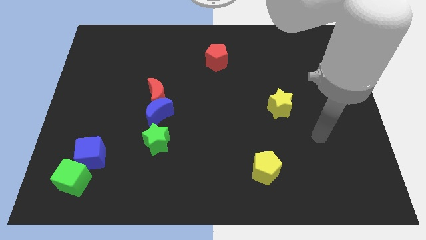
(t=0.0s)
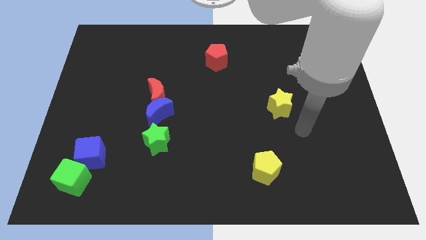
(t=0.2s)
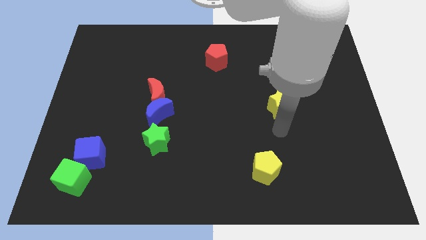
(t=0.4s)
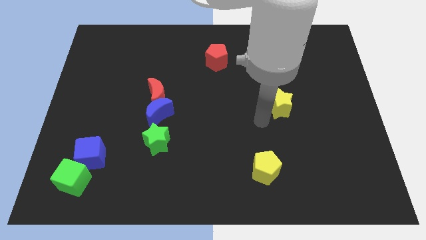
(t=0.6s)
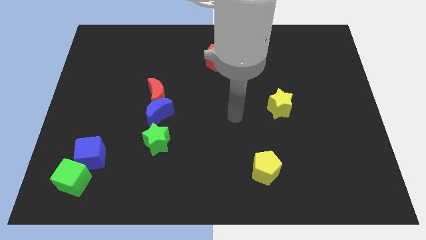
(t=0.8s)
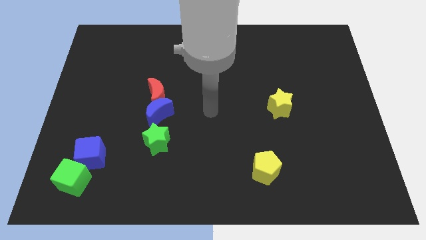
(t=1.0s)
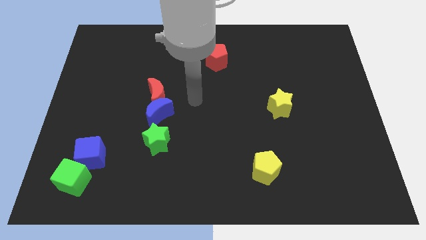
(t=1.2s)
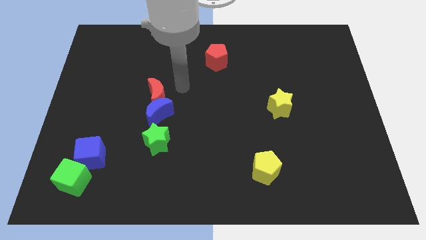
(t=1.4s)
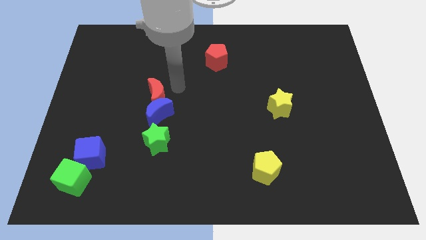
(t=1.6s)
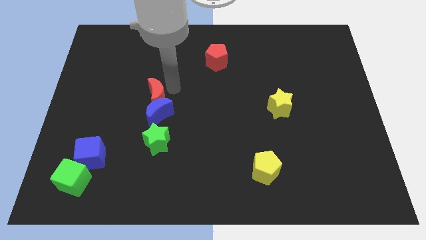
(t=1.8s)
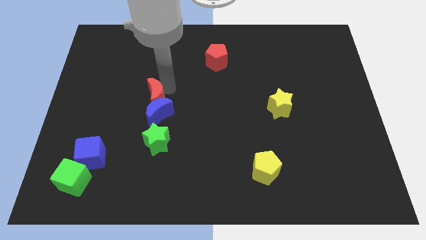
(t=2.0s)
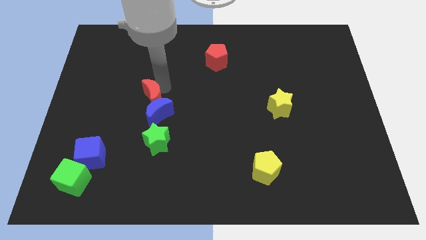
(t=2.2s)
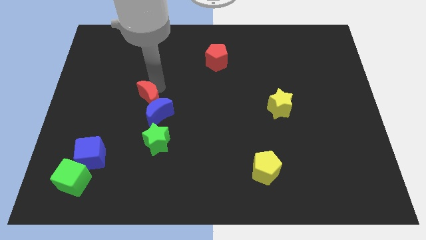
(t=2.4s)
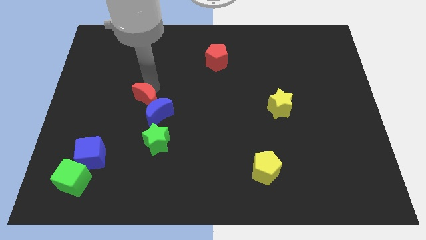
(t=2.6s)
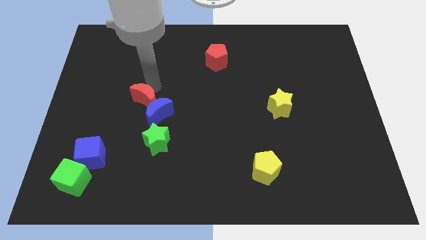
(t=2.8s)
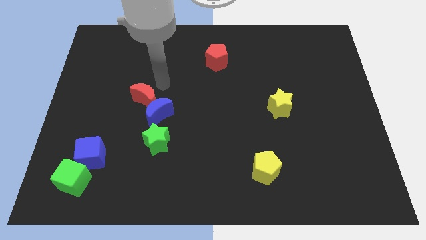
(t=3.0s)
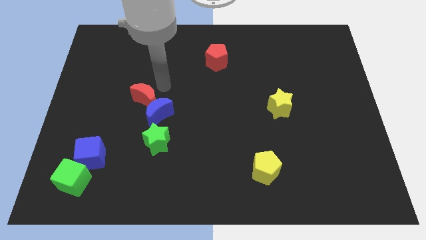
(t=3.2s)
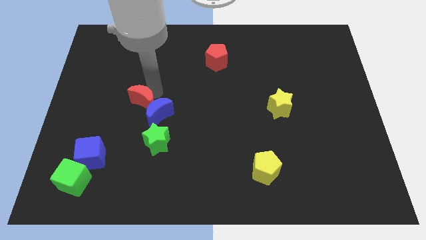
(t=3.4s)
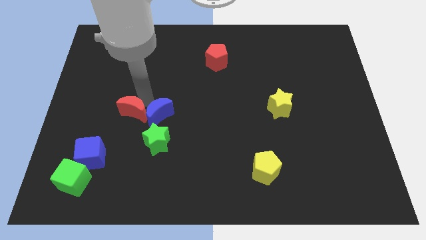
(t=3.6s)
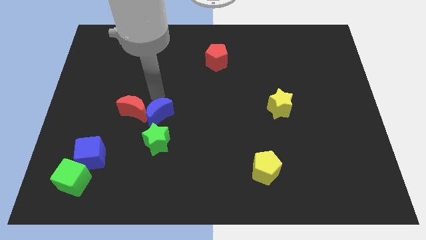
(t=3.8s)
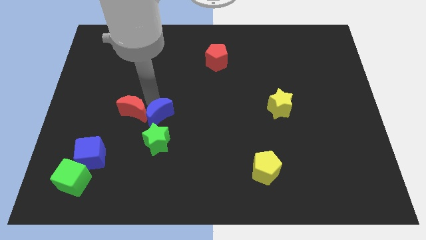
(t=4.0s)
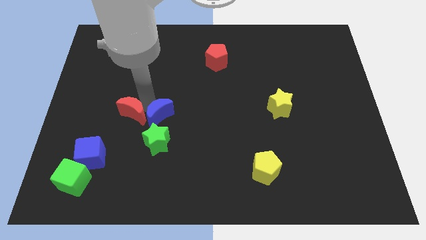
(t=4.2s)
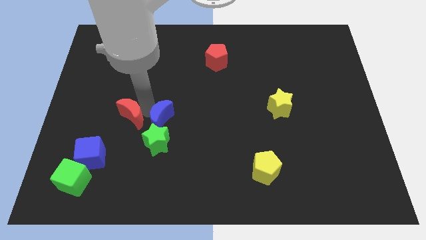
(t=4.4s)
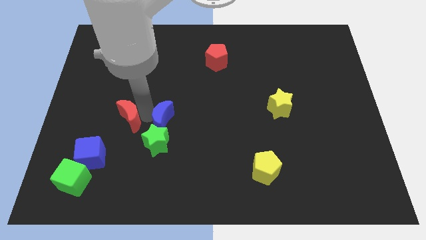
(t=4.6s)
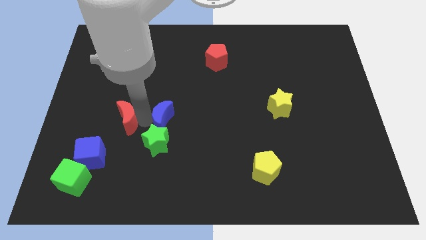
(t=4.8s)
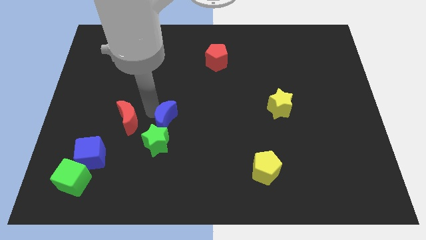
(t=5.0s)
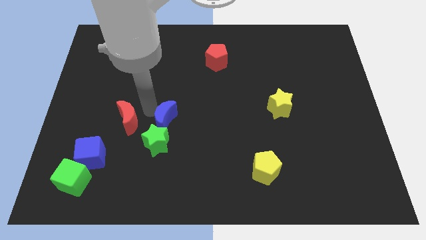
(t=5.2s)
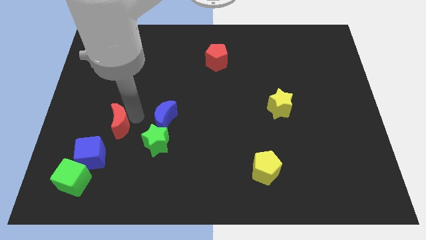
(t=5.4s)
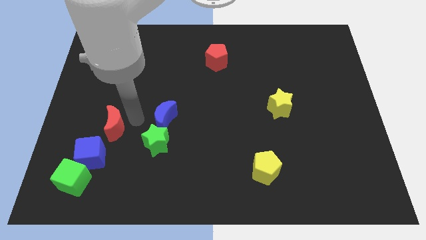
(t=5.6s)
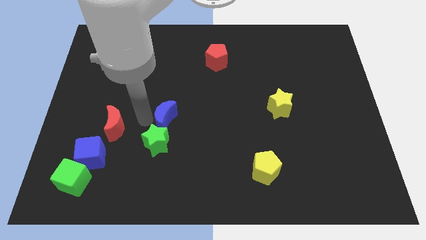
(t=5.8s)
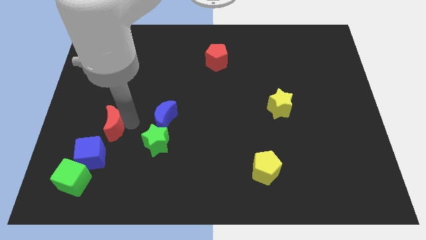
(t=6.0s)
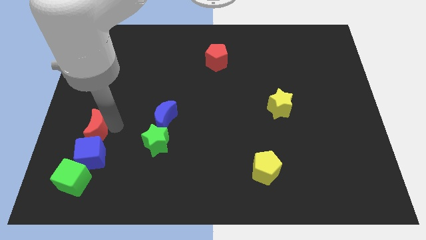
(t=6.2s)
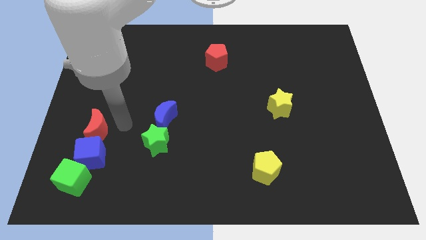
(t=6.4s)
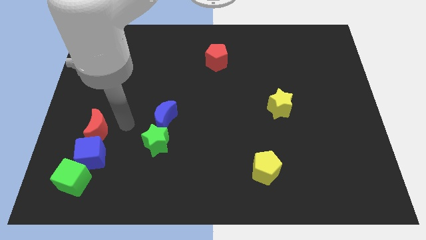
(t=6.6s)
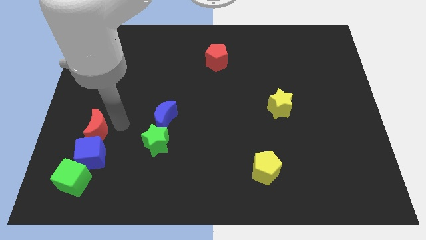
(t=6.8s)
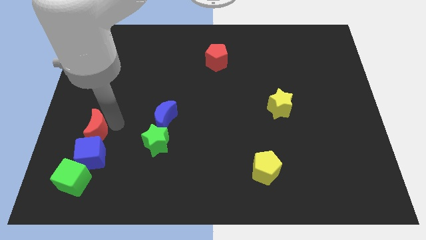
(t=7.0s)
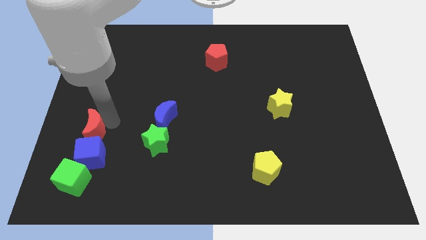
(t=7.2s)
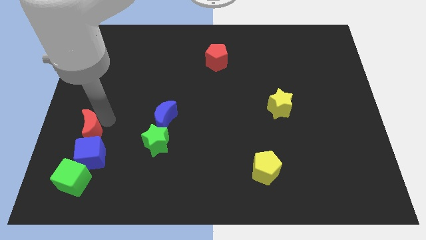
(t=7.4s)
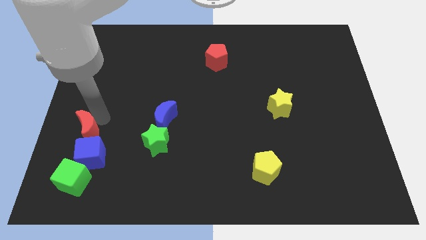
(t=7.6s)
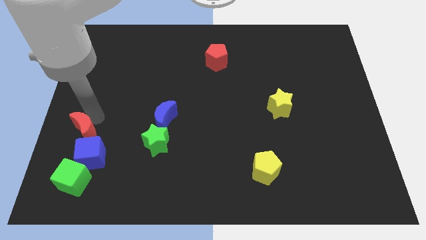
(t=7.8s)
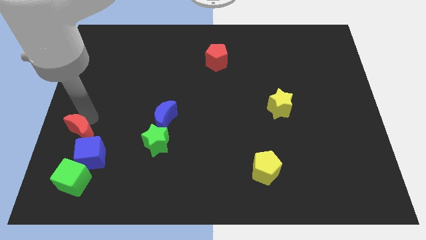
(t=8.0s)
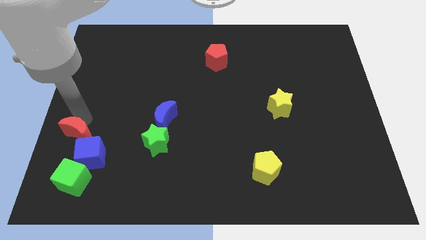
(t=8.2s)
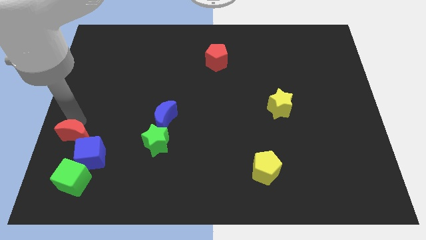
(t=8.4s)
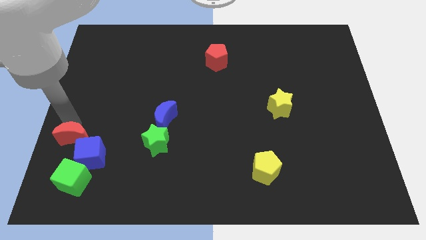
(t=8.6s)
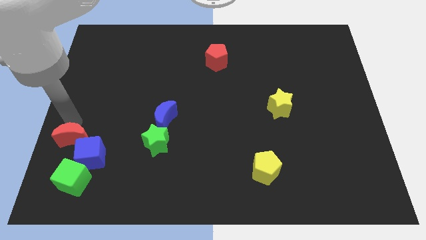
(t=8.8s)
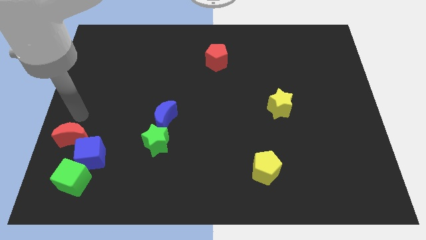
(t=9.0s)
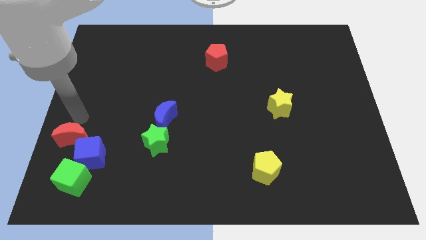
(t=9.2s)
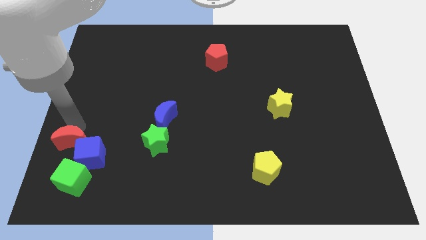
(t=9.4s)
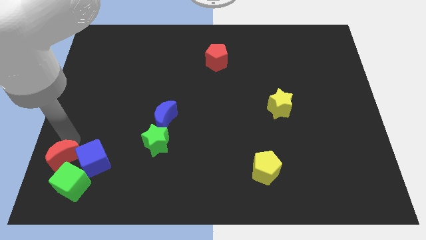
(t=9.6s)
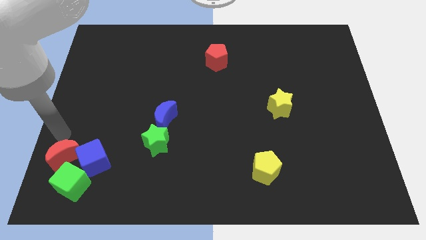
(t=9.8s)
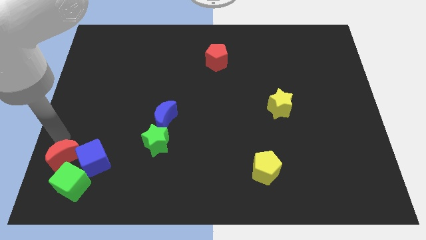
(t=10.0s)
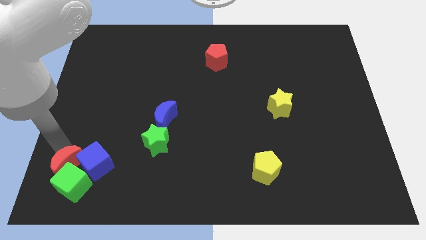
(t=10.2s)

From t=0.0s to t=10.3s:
push the red moon next to the green cube

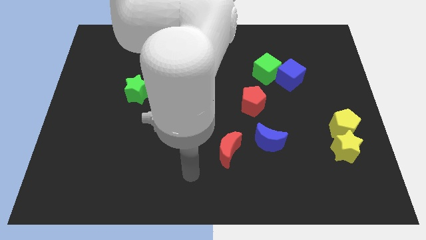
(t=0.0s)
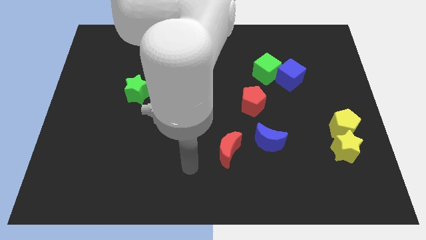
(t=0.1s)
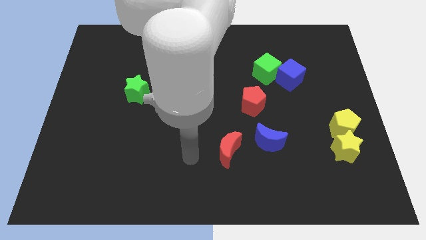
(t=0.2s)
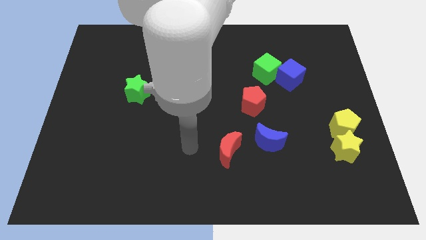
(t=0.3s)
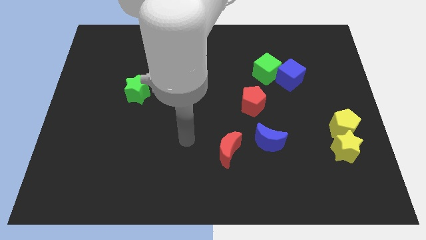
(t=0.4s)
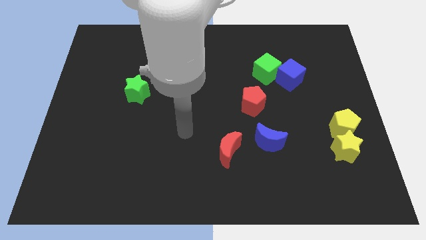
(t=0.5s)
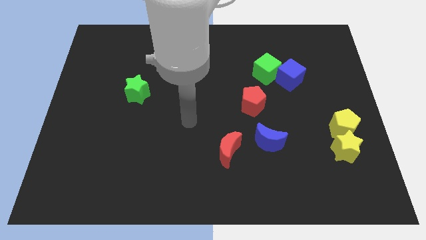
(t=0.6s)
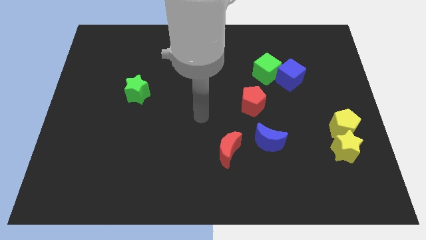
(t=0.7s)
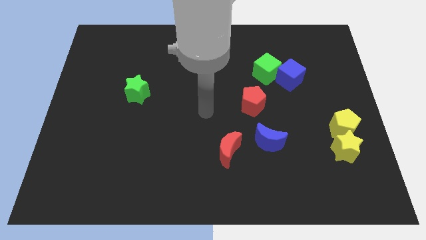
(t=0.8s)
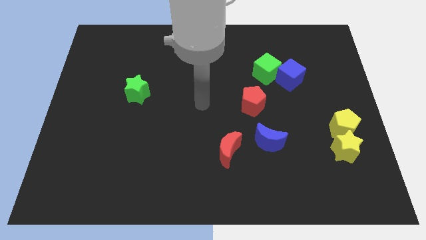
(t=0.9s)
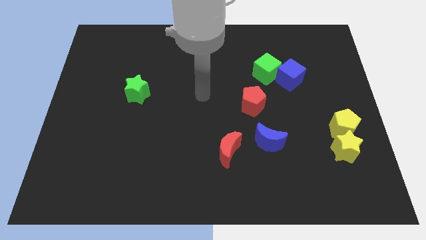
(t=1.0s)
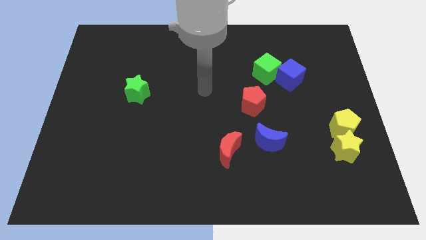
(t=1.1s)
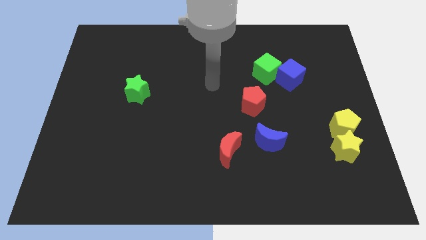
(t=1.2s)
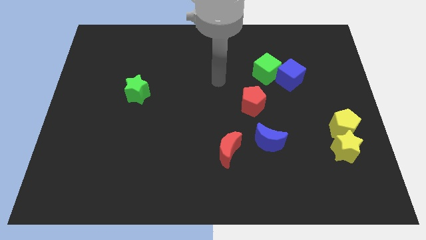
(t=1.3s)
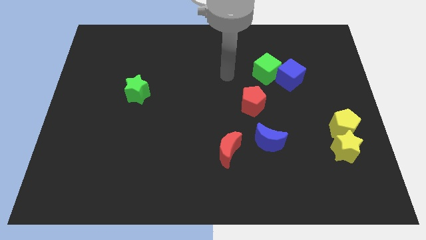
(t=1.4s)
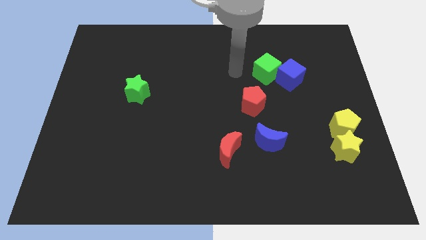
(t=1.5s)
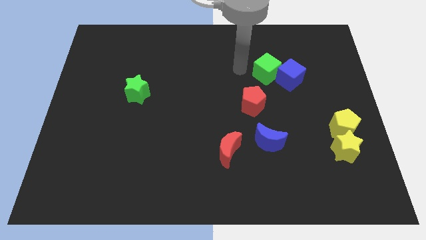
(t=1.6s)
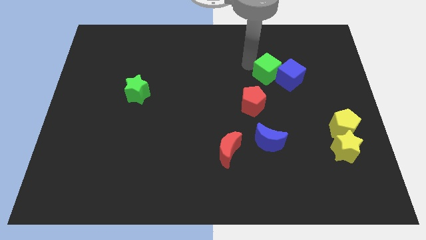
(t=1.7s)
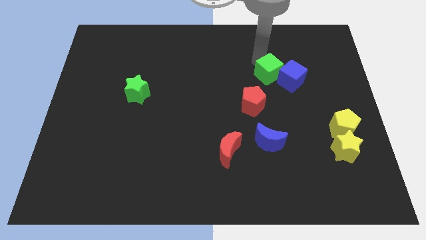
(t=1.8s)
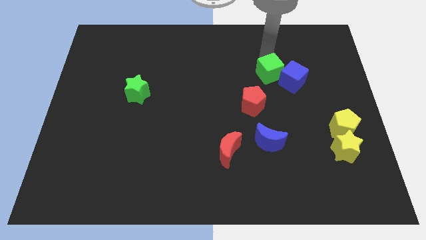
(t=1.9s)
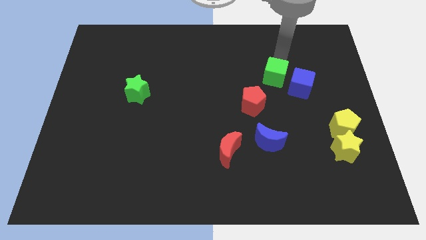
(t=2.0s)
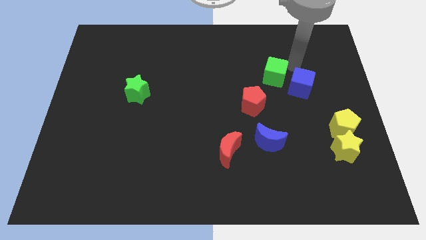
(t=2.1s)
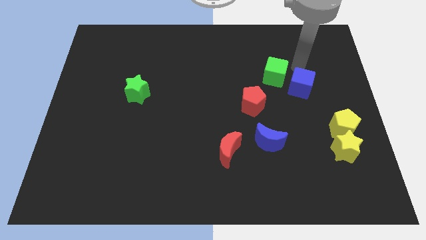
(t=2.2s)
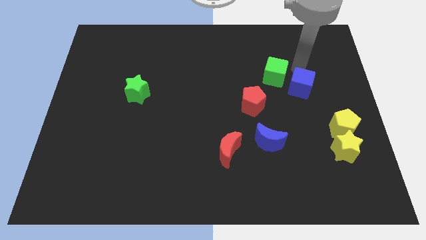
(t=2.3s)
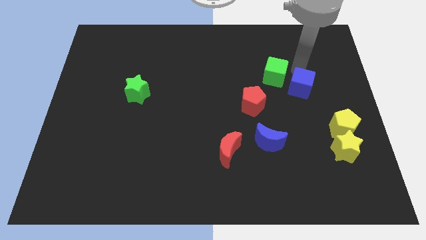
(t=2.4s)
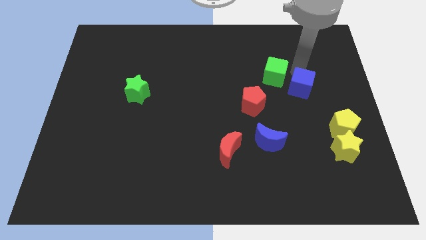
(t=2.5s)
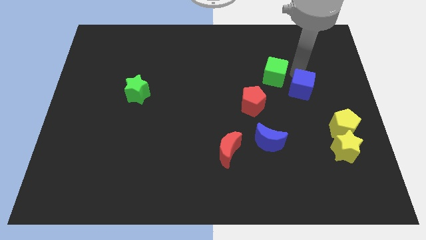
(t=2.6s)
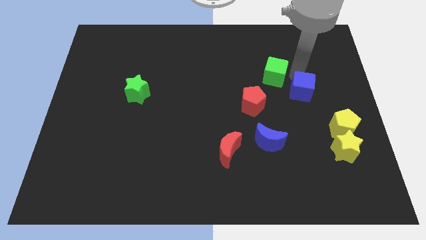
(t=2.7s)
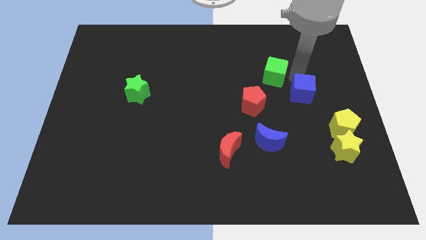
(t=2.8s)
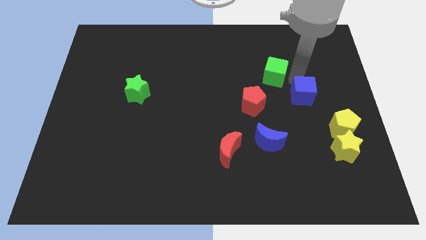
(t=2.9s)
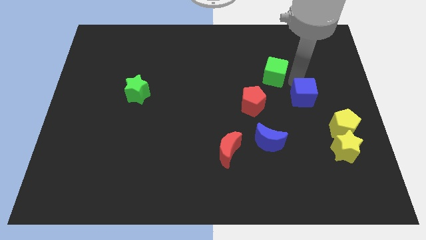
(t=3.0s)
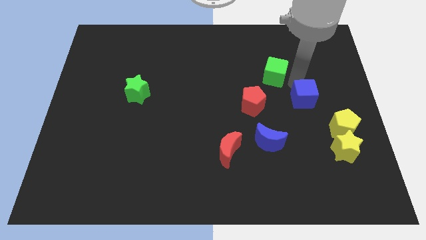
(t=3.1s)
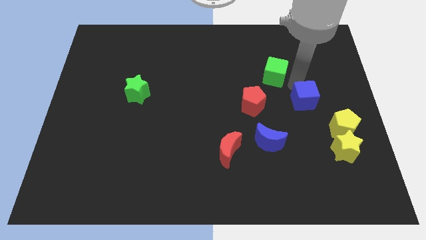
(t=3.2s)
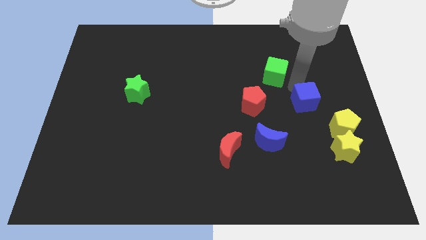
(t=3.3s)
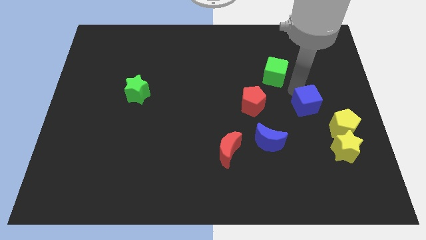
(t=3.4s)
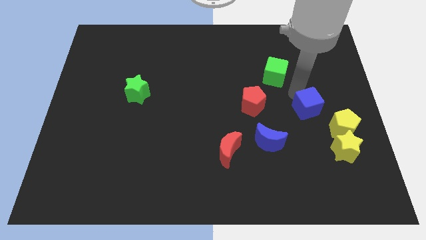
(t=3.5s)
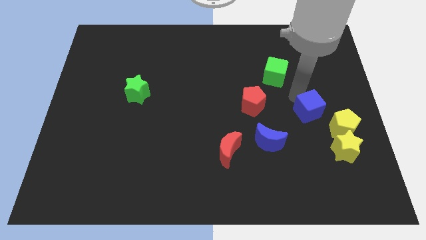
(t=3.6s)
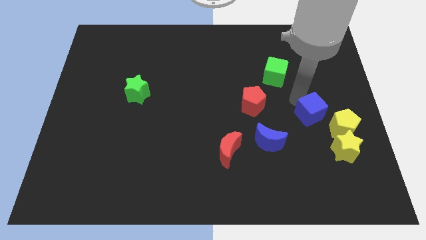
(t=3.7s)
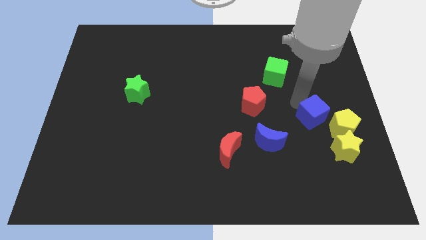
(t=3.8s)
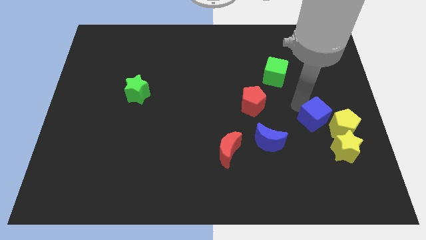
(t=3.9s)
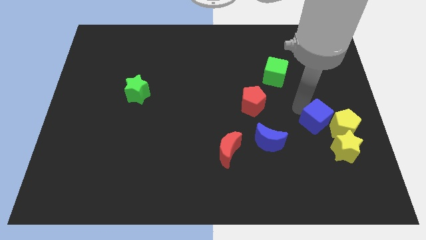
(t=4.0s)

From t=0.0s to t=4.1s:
slide the blue cube close to the yellow pentagon
